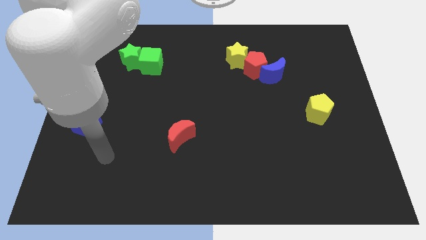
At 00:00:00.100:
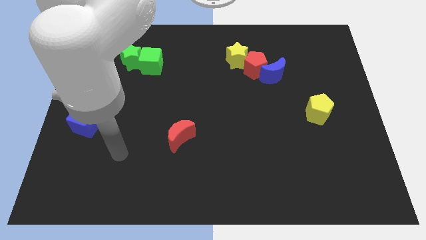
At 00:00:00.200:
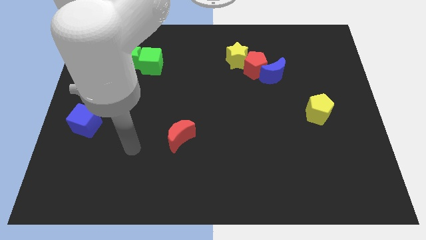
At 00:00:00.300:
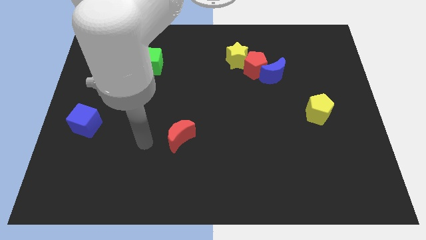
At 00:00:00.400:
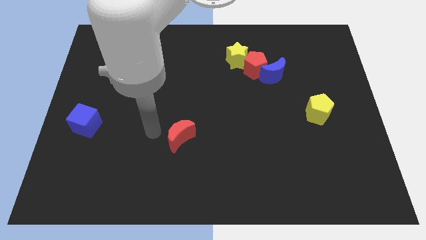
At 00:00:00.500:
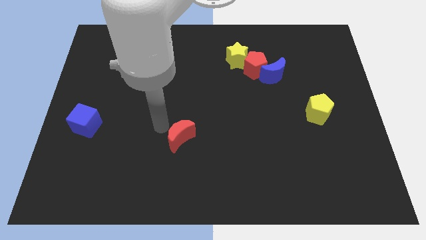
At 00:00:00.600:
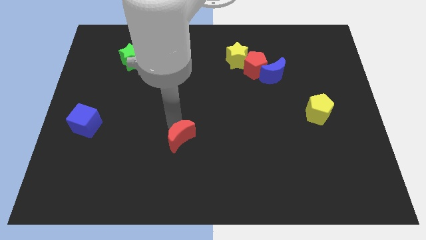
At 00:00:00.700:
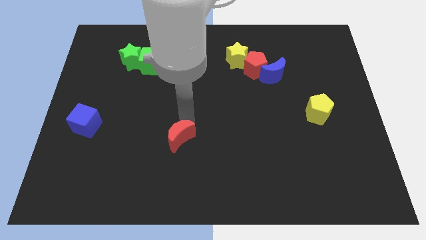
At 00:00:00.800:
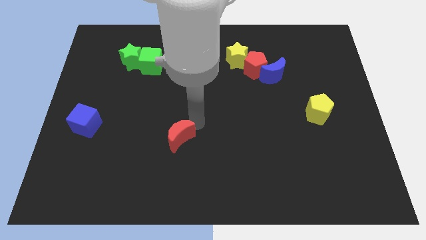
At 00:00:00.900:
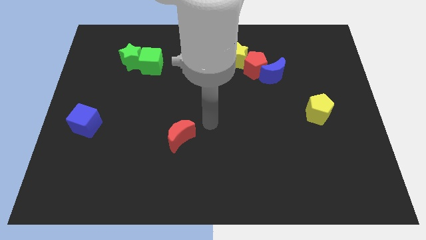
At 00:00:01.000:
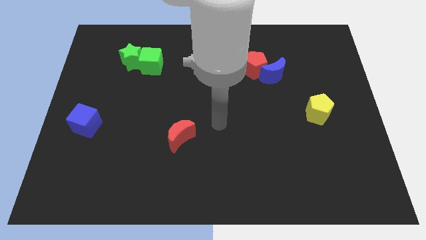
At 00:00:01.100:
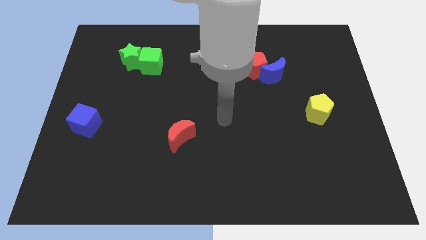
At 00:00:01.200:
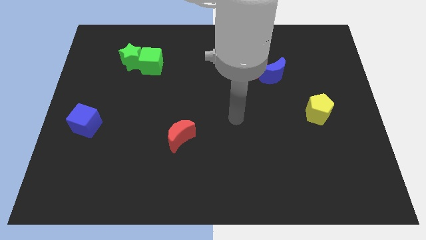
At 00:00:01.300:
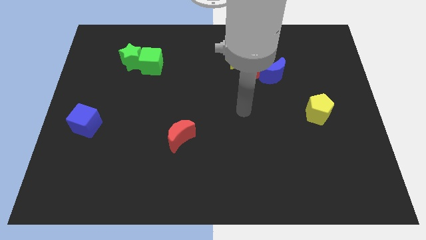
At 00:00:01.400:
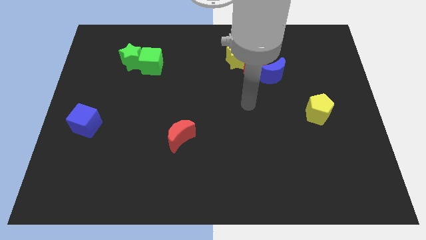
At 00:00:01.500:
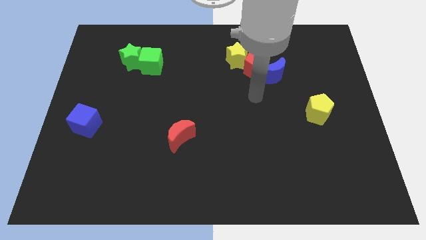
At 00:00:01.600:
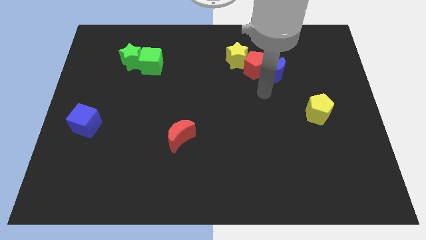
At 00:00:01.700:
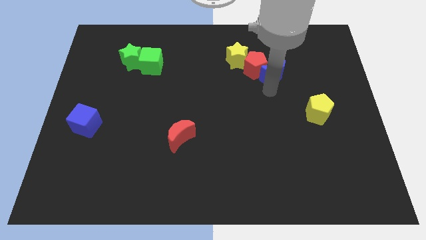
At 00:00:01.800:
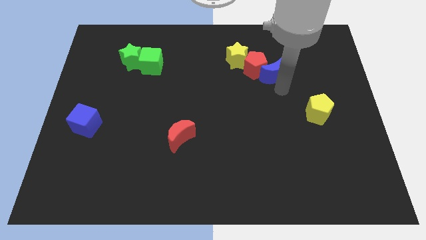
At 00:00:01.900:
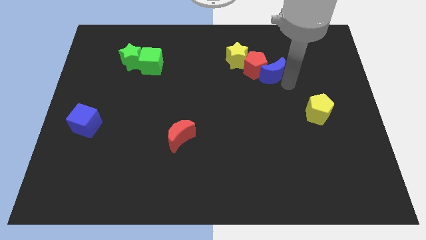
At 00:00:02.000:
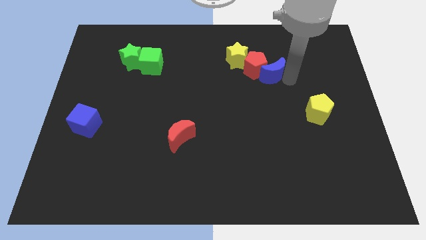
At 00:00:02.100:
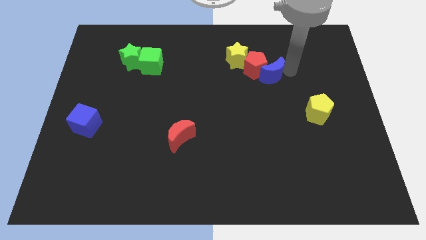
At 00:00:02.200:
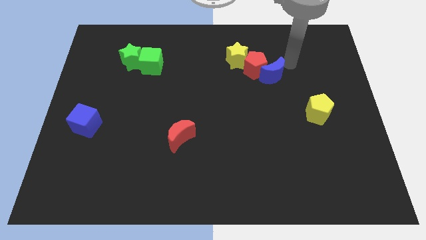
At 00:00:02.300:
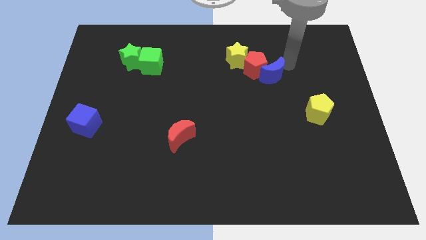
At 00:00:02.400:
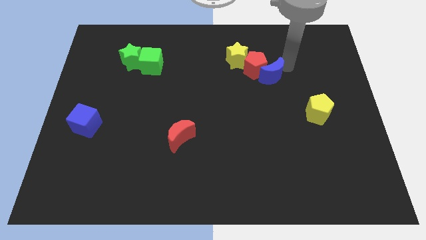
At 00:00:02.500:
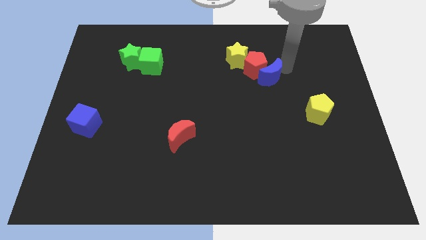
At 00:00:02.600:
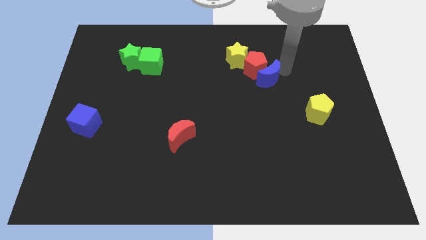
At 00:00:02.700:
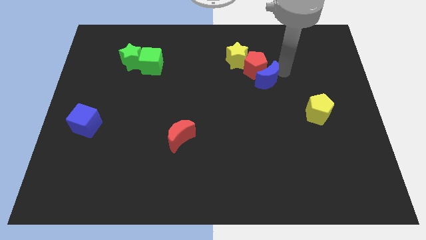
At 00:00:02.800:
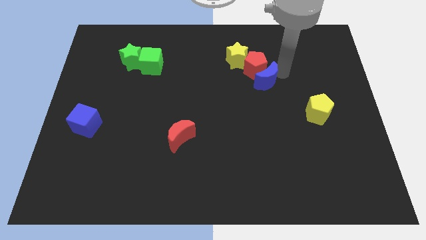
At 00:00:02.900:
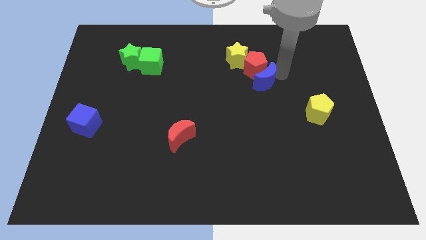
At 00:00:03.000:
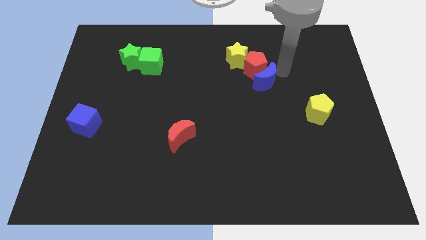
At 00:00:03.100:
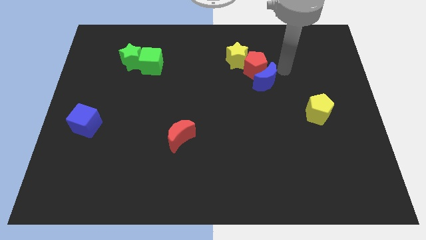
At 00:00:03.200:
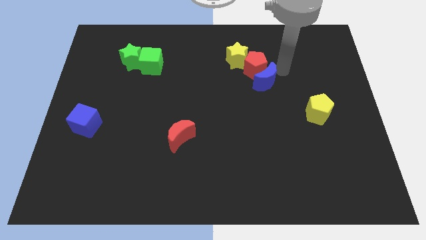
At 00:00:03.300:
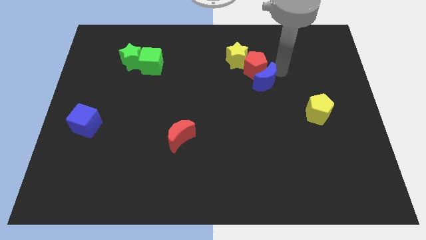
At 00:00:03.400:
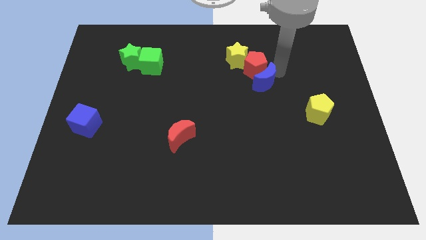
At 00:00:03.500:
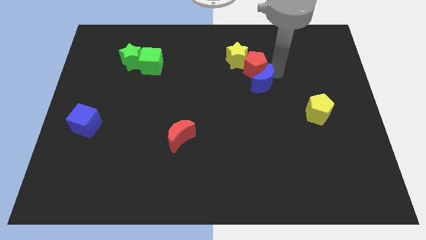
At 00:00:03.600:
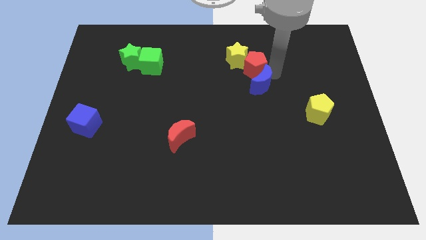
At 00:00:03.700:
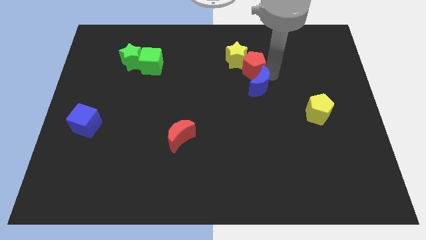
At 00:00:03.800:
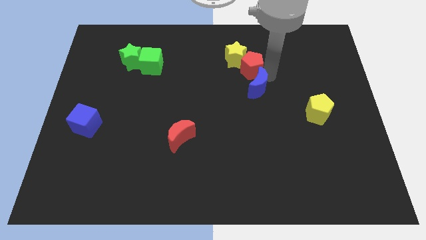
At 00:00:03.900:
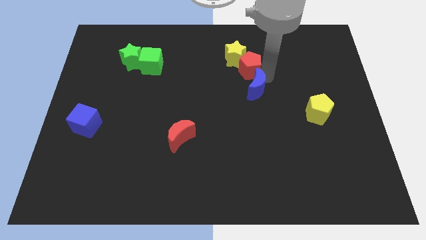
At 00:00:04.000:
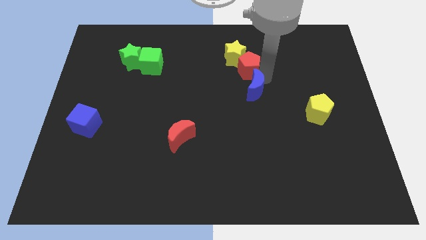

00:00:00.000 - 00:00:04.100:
push the blue moon a little bit downwards and then to the left

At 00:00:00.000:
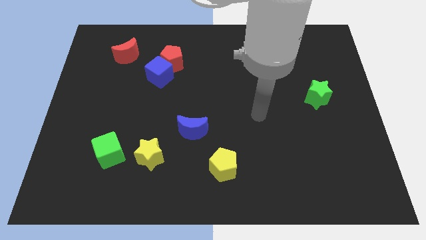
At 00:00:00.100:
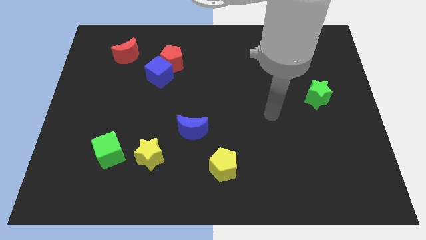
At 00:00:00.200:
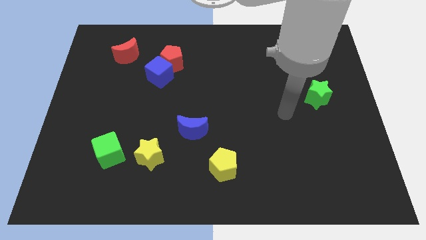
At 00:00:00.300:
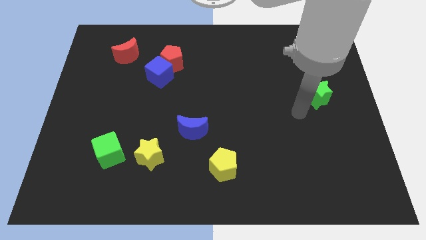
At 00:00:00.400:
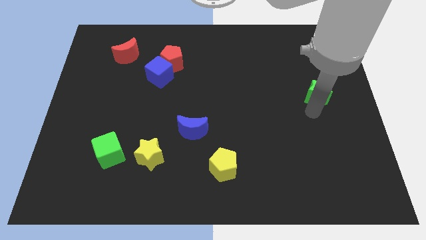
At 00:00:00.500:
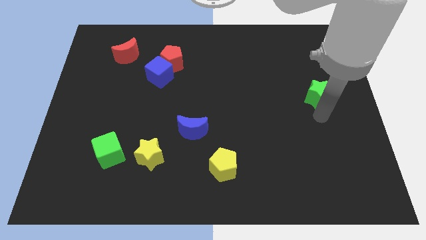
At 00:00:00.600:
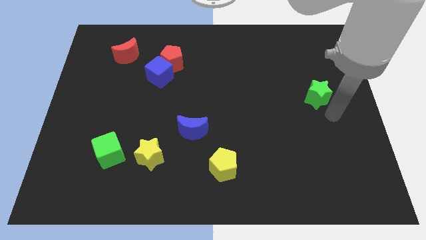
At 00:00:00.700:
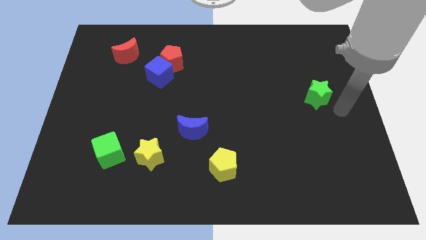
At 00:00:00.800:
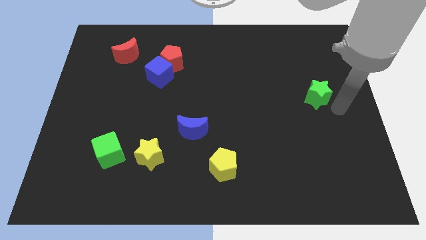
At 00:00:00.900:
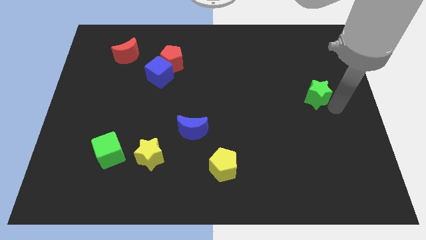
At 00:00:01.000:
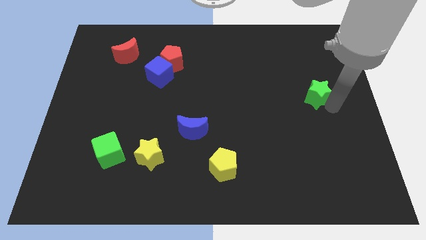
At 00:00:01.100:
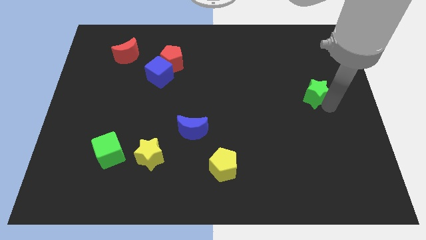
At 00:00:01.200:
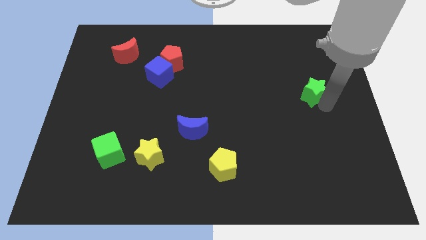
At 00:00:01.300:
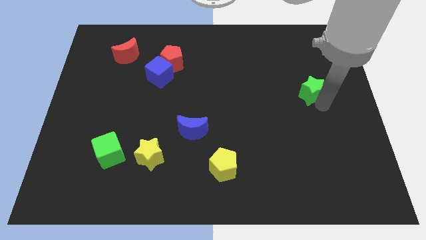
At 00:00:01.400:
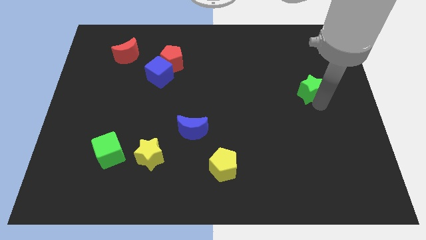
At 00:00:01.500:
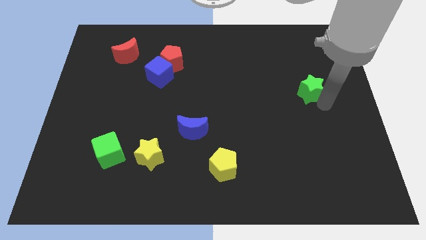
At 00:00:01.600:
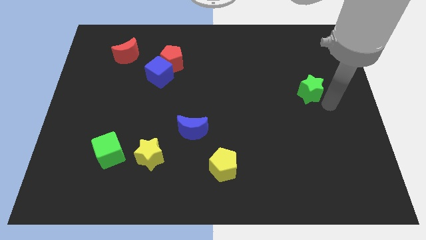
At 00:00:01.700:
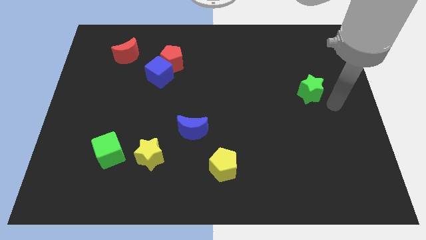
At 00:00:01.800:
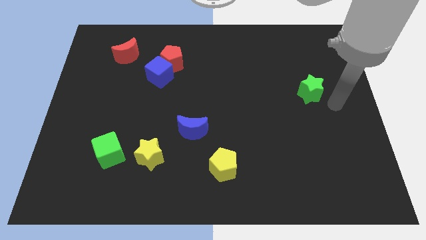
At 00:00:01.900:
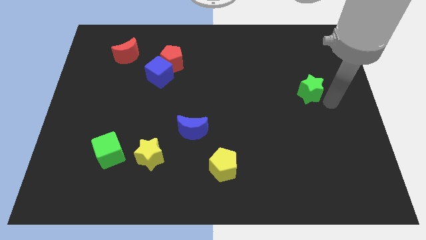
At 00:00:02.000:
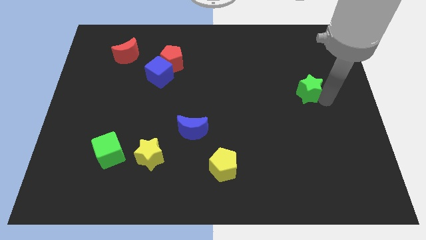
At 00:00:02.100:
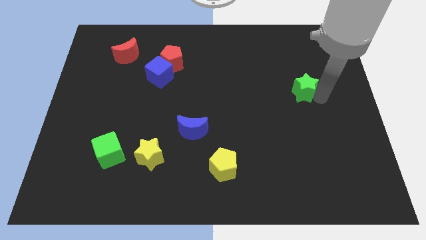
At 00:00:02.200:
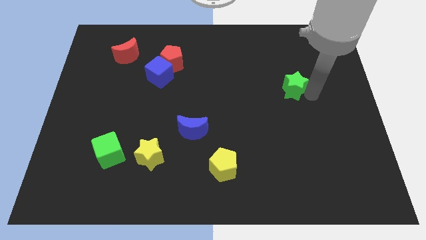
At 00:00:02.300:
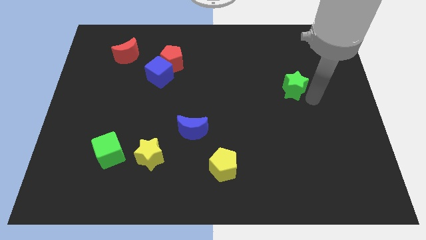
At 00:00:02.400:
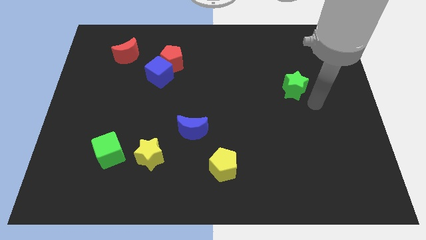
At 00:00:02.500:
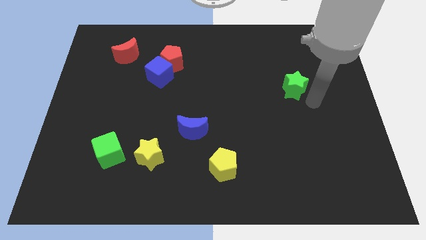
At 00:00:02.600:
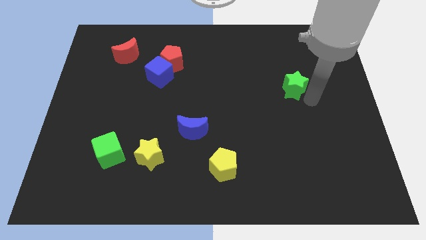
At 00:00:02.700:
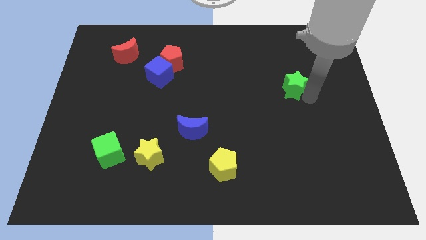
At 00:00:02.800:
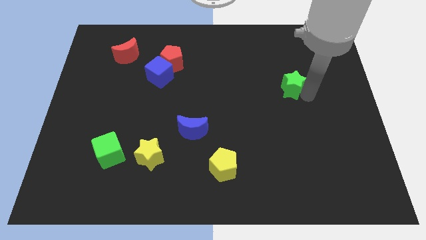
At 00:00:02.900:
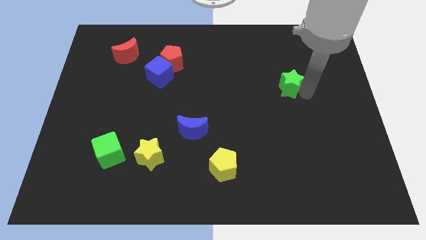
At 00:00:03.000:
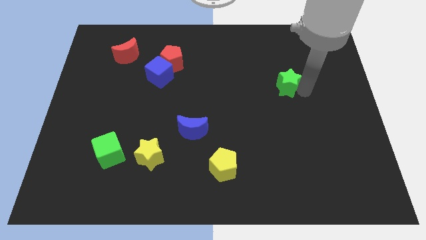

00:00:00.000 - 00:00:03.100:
push the green star upwards and then to the left somewhat

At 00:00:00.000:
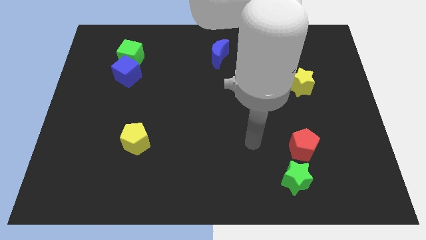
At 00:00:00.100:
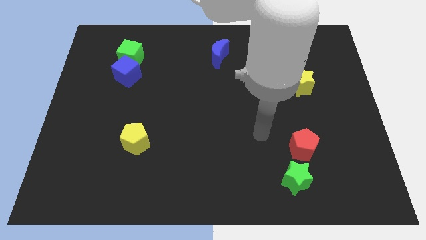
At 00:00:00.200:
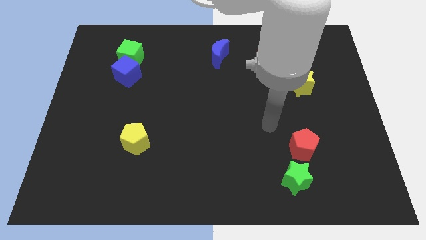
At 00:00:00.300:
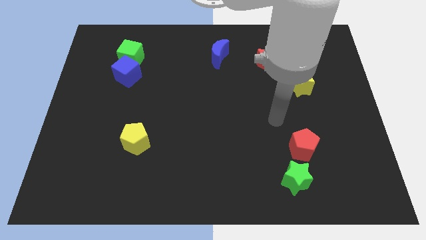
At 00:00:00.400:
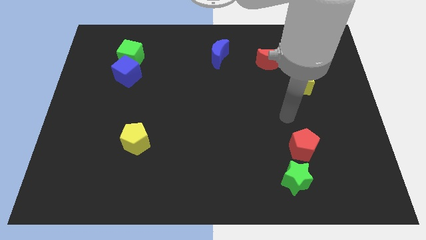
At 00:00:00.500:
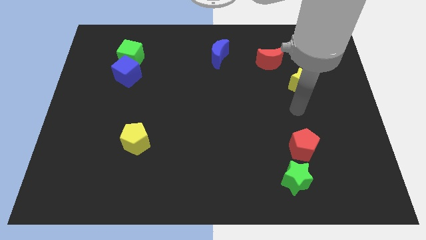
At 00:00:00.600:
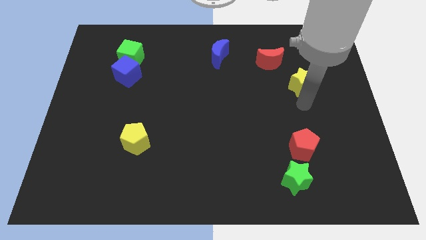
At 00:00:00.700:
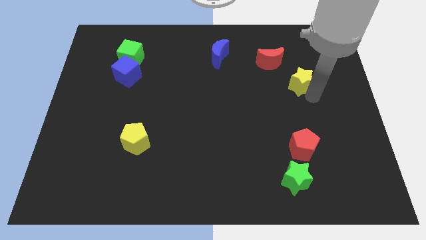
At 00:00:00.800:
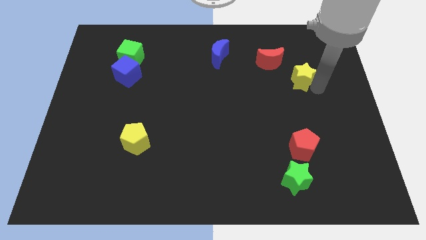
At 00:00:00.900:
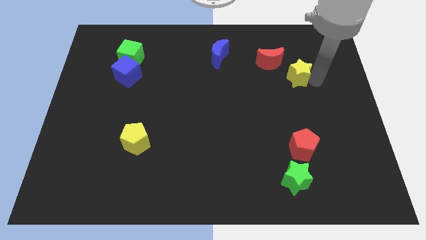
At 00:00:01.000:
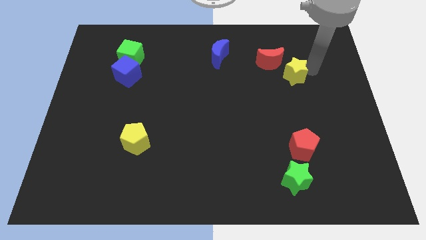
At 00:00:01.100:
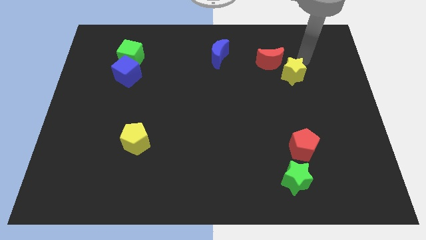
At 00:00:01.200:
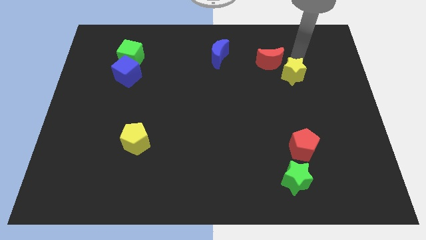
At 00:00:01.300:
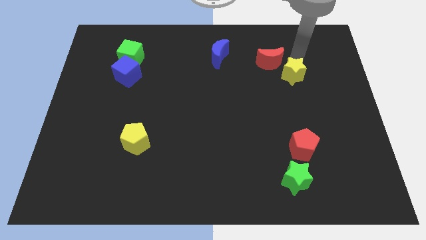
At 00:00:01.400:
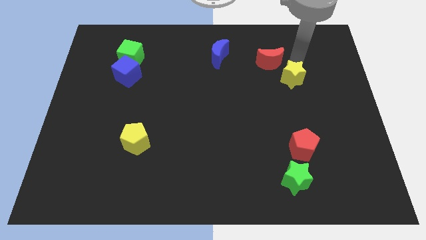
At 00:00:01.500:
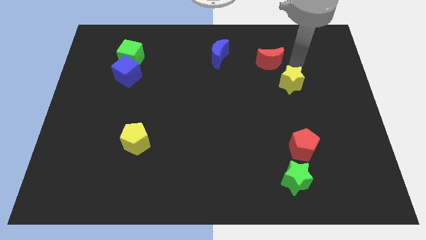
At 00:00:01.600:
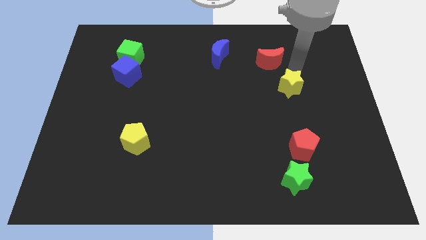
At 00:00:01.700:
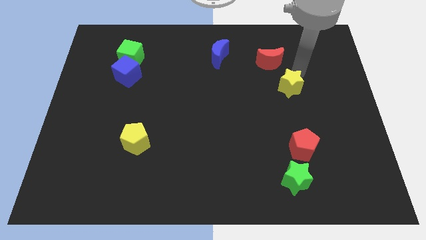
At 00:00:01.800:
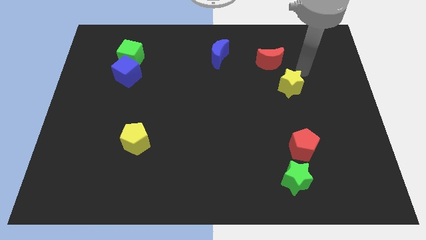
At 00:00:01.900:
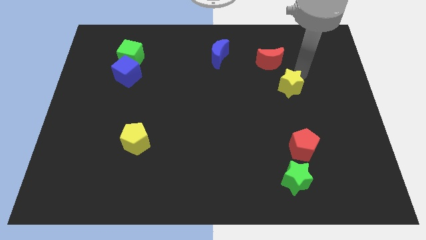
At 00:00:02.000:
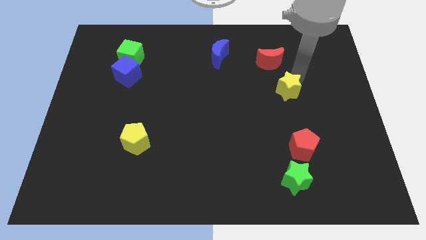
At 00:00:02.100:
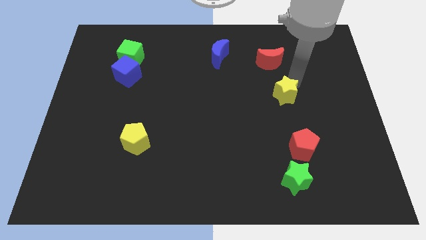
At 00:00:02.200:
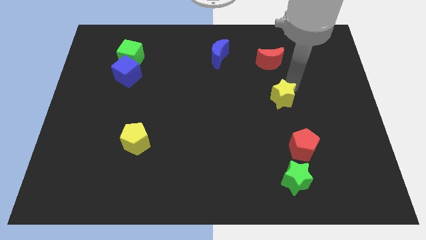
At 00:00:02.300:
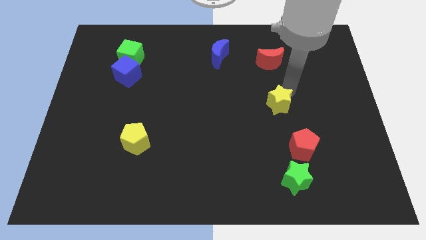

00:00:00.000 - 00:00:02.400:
slide the yellow star down and left a bit
